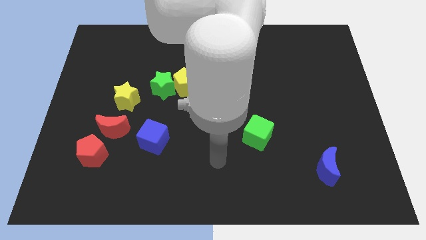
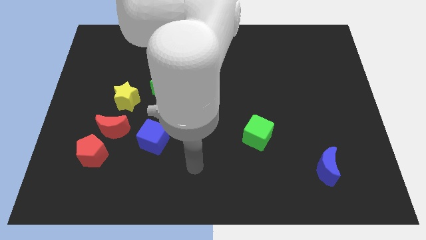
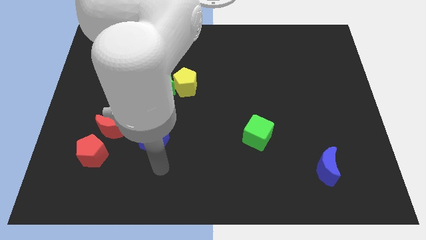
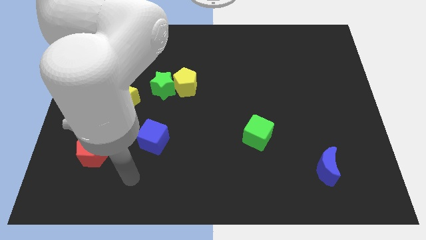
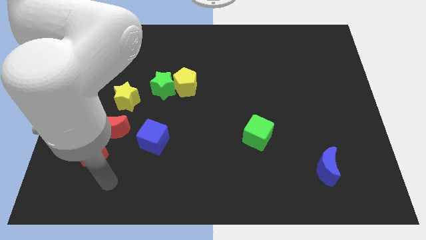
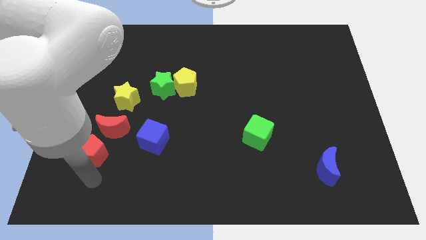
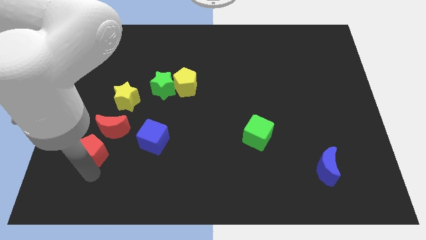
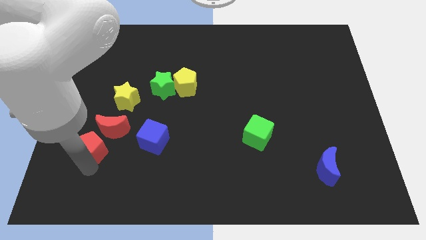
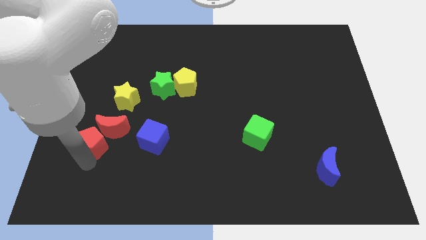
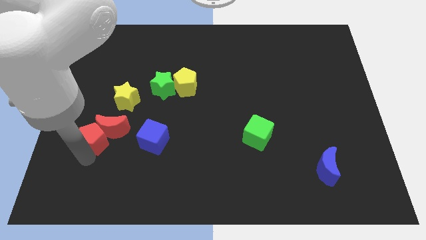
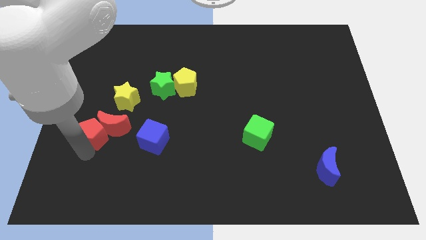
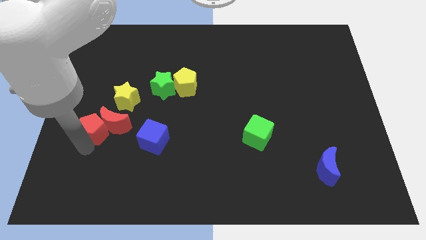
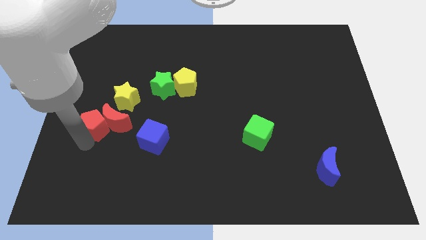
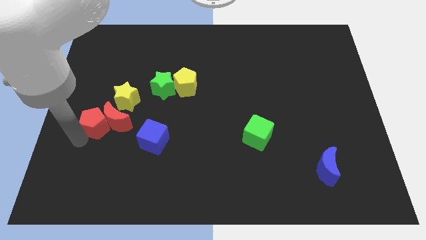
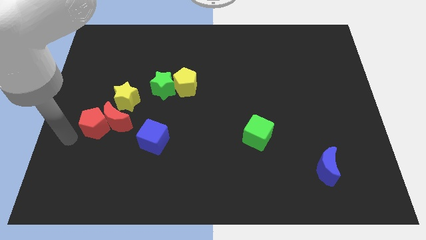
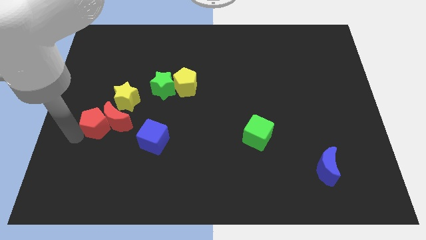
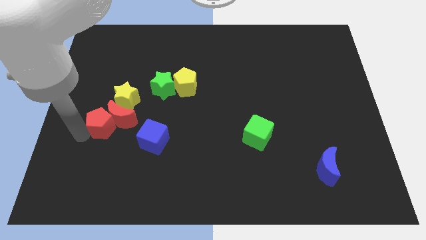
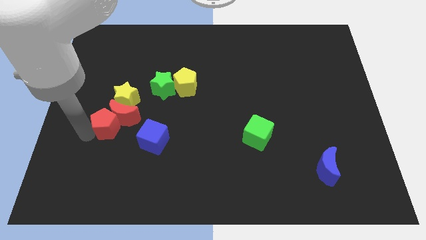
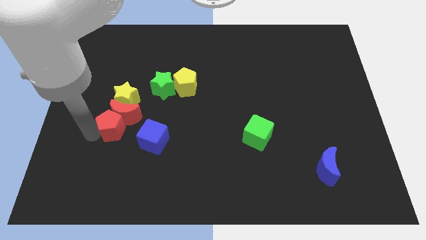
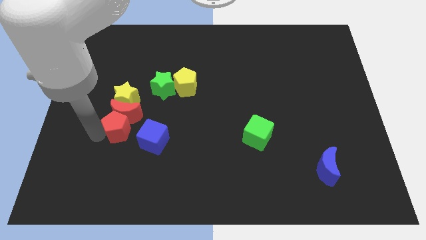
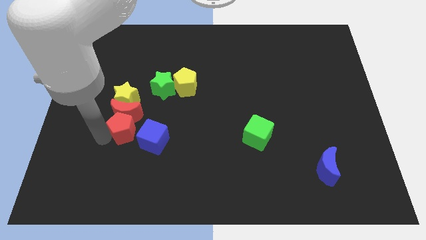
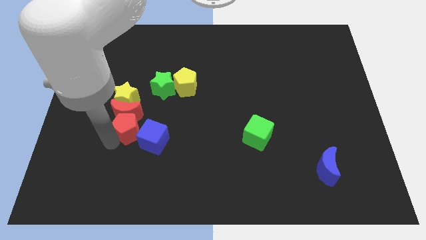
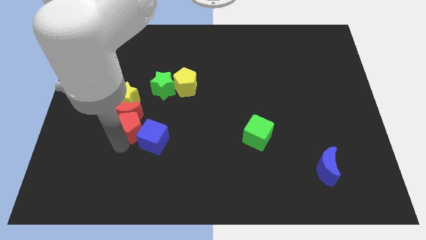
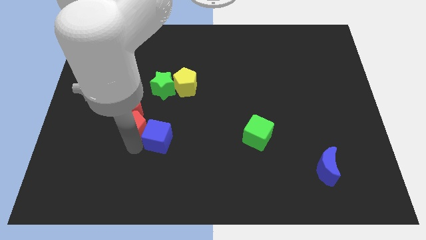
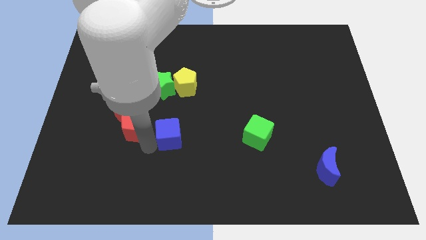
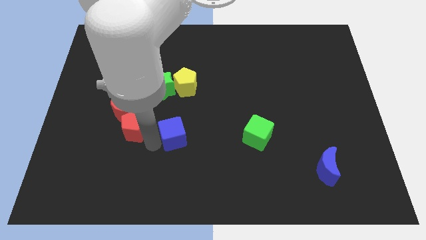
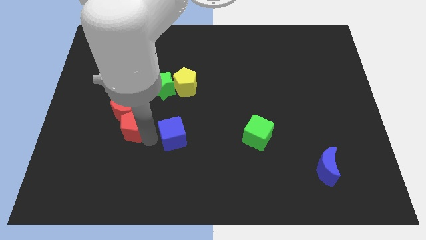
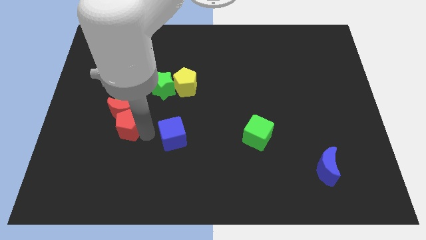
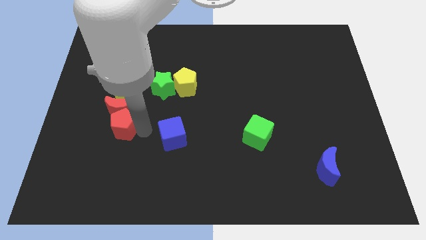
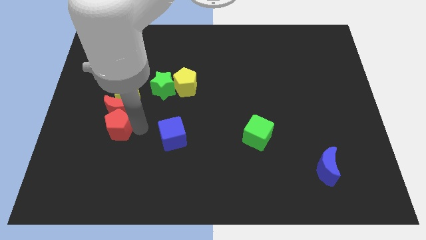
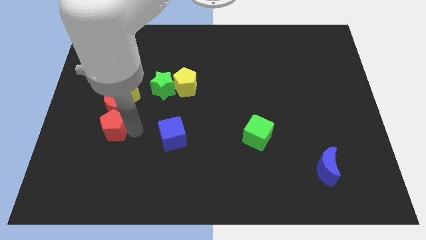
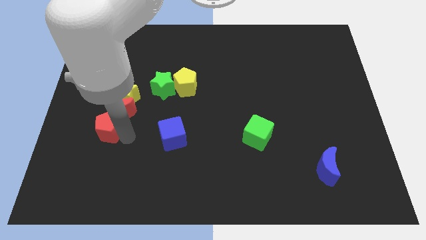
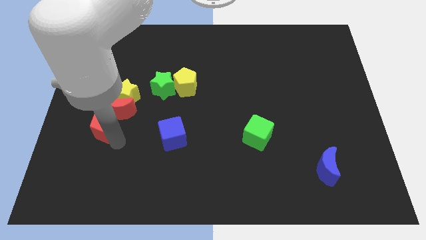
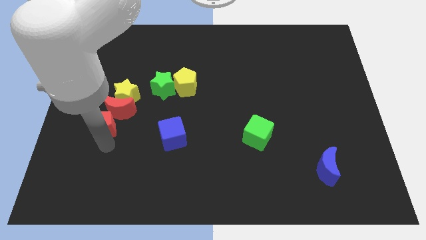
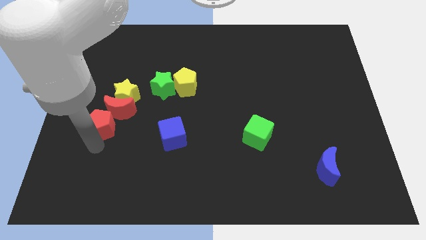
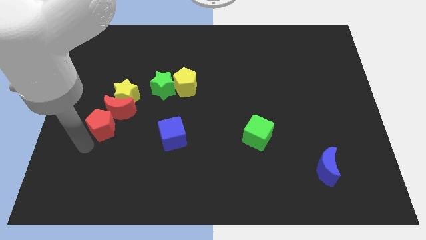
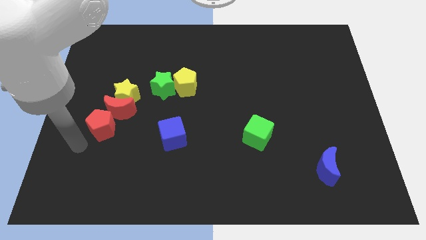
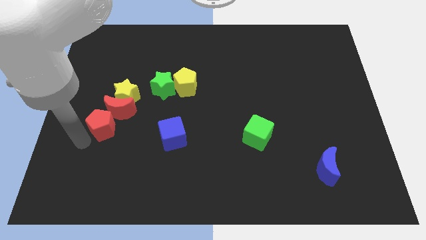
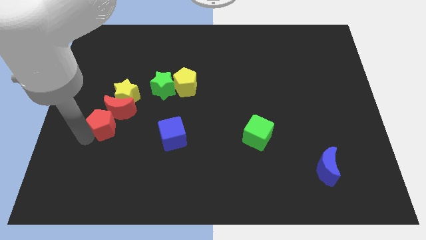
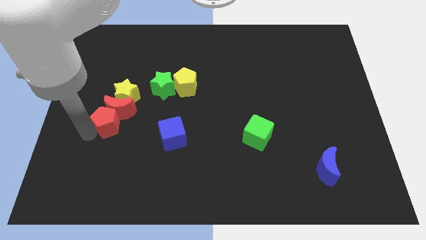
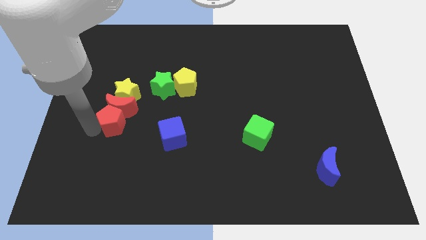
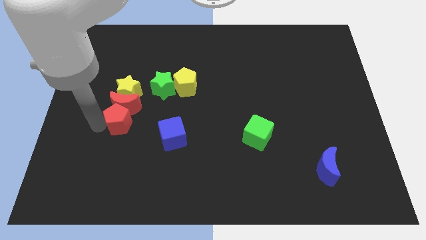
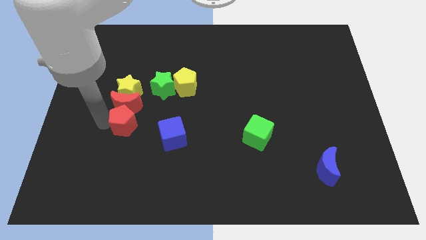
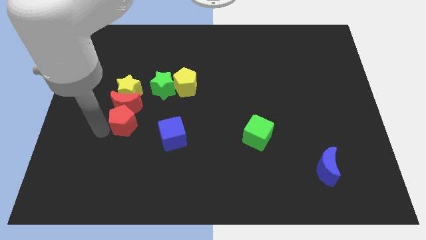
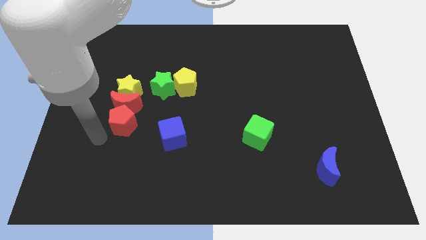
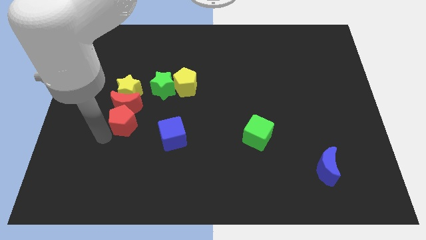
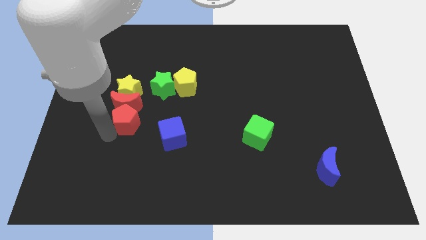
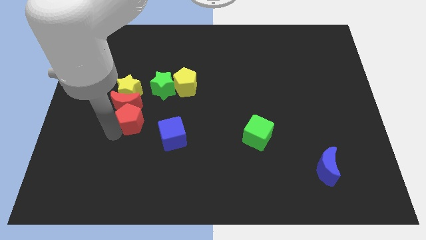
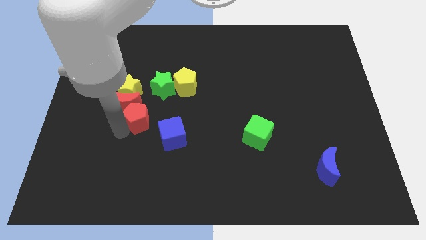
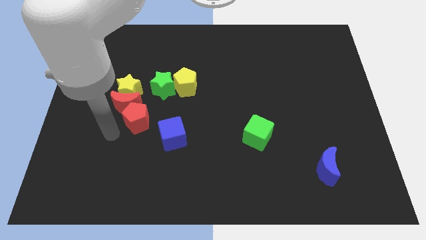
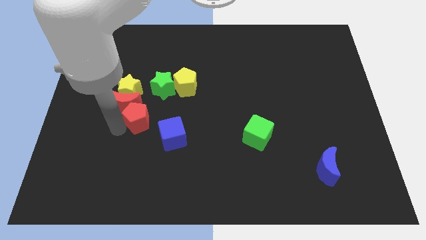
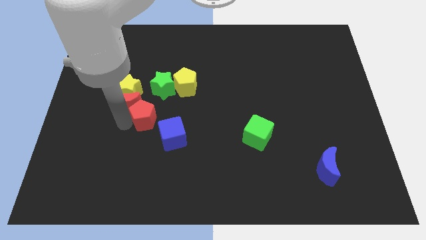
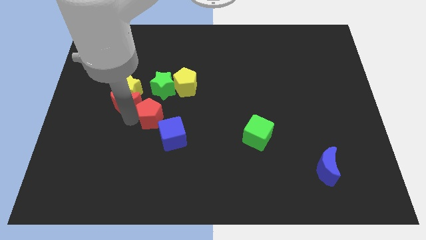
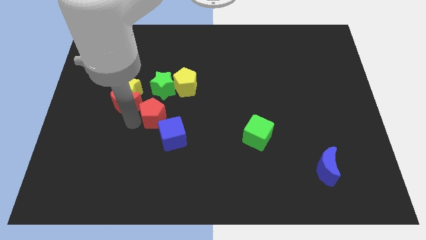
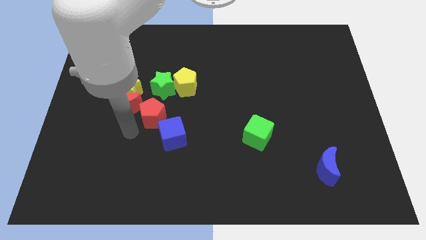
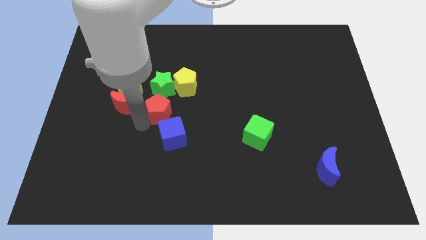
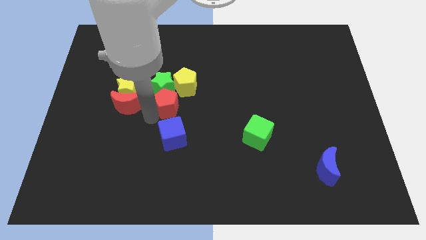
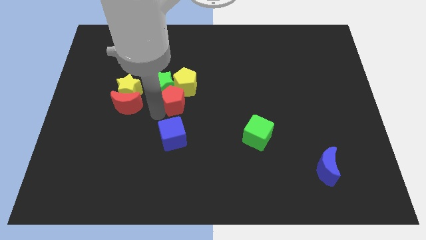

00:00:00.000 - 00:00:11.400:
push the red pentagon next to the yellow pentagon

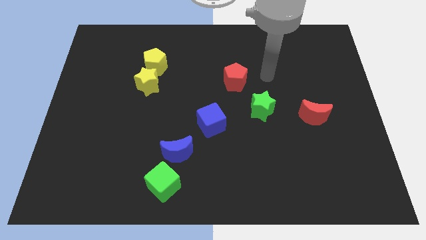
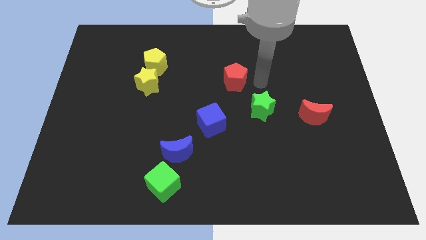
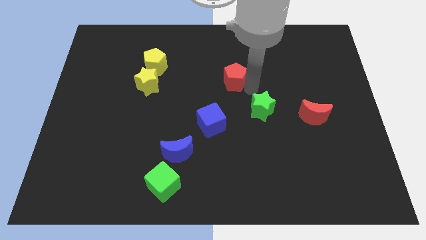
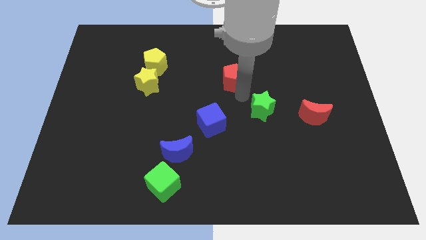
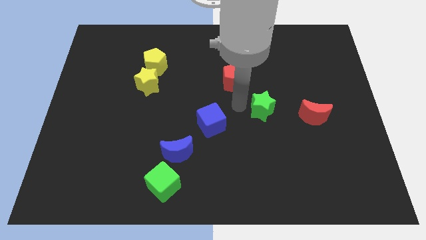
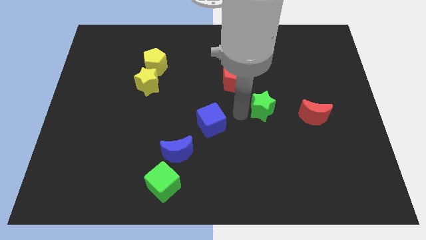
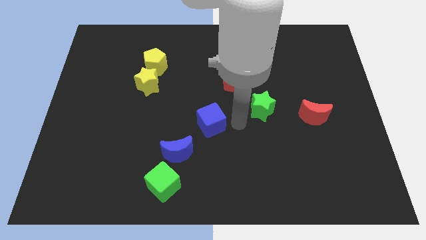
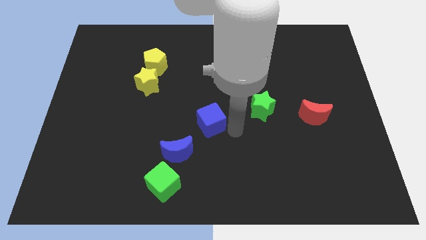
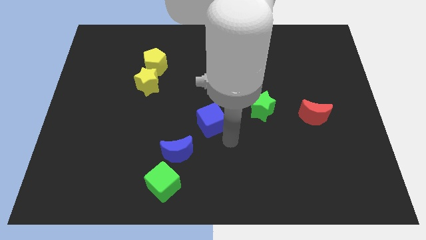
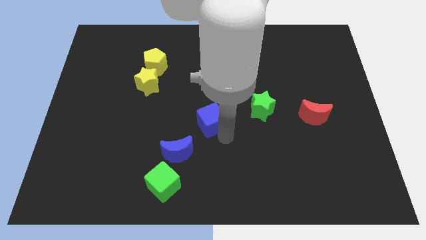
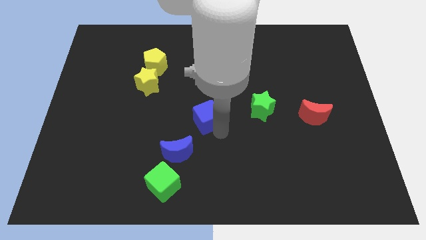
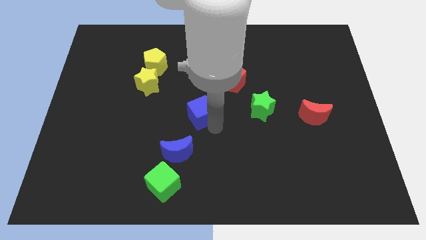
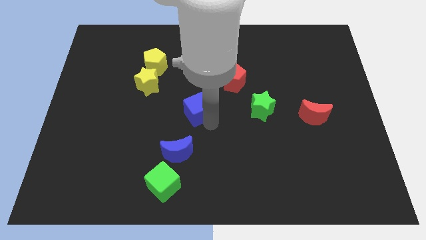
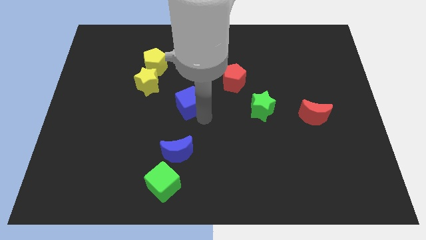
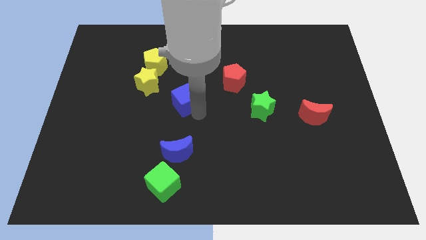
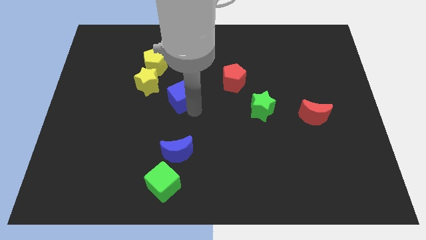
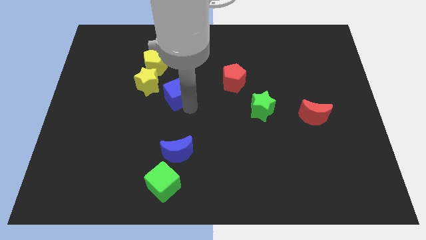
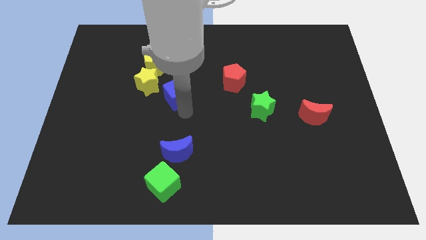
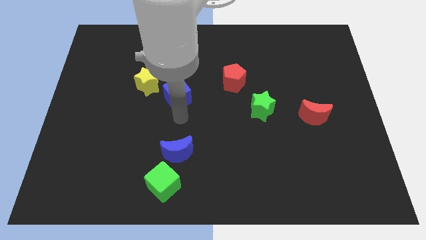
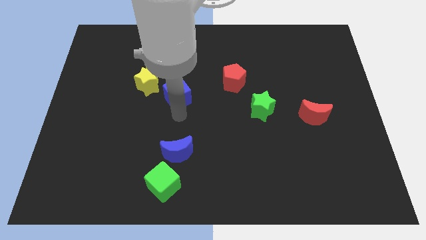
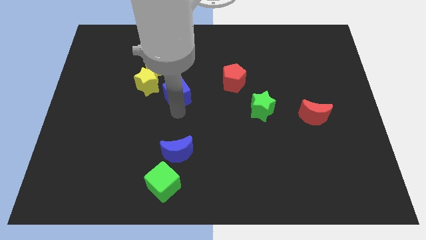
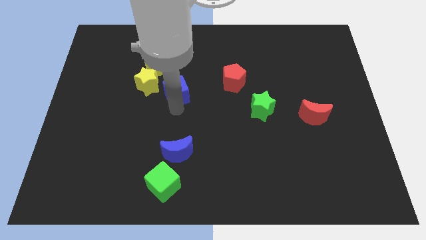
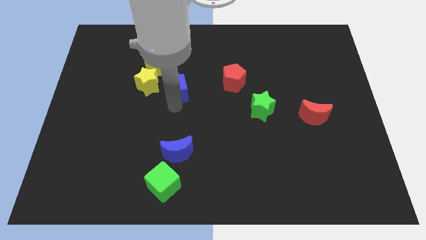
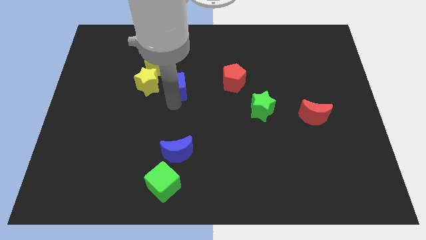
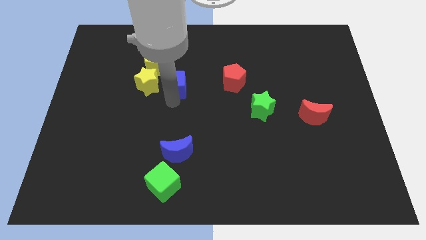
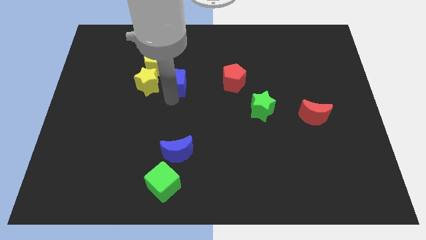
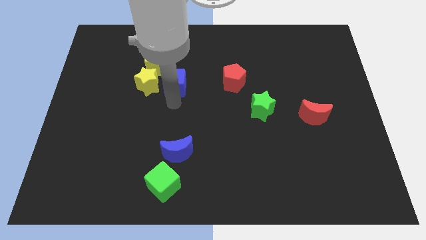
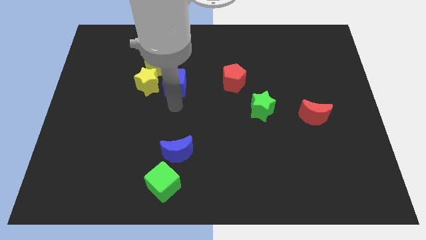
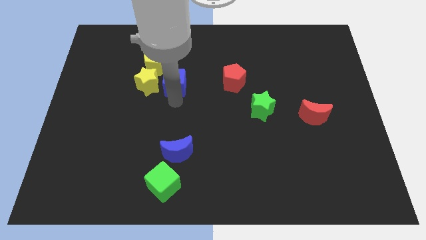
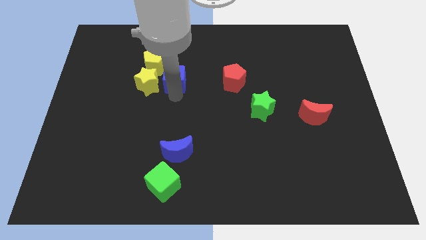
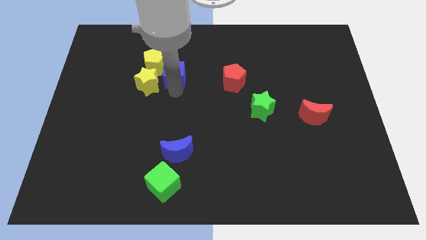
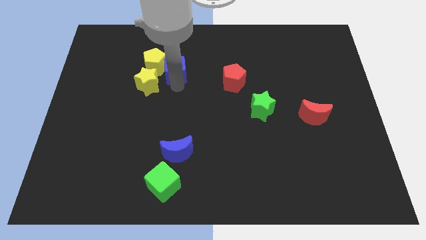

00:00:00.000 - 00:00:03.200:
move the blue cube next to the yellow pentagon
